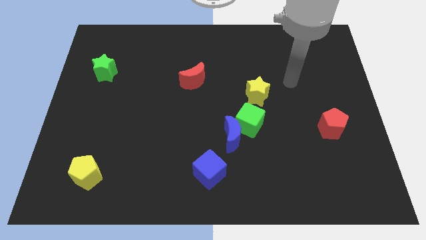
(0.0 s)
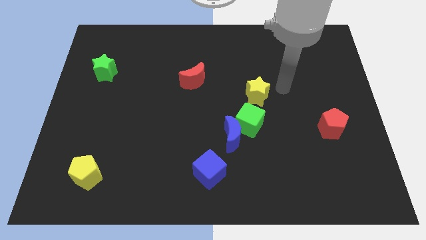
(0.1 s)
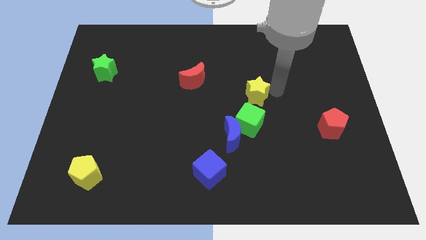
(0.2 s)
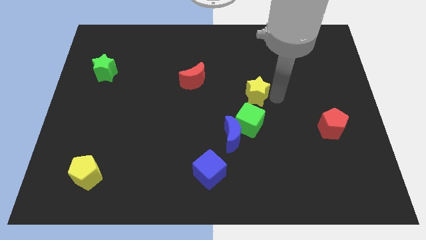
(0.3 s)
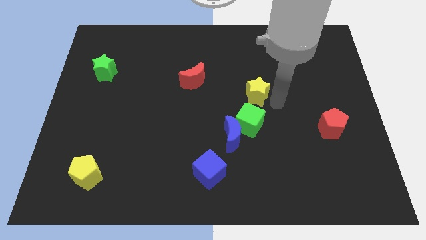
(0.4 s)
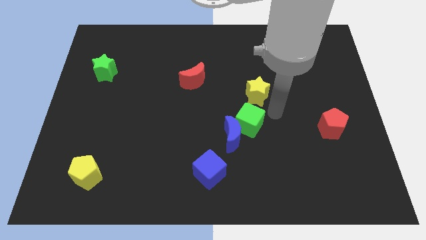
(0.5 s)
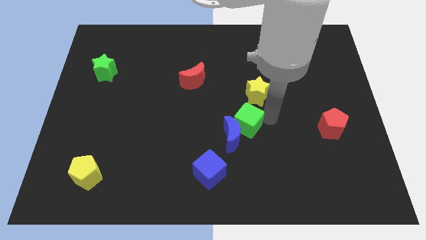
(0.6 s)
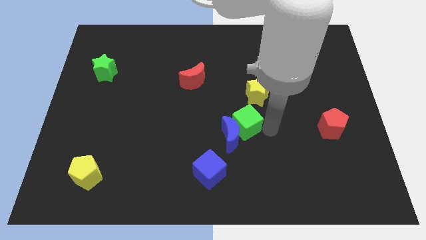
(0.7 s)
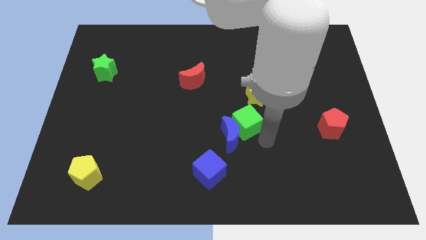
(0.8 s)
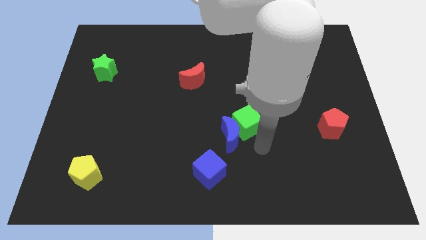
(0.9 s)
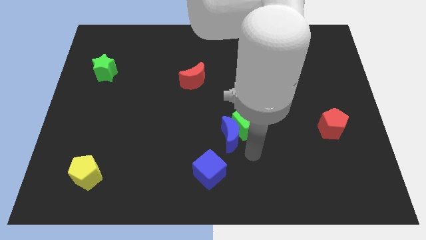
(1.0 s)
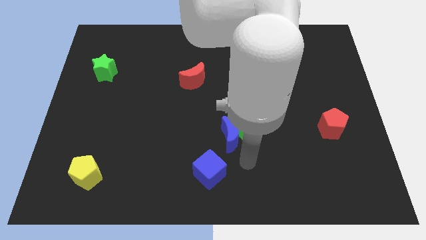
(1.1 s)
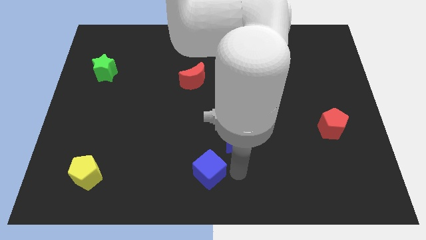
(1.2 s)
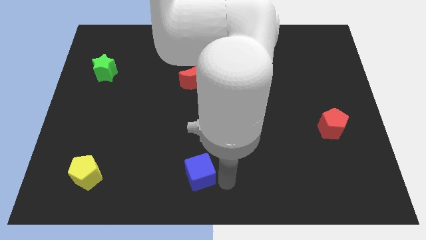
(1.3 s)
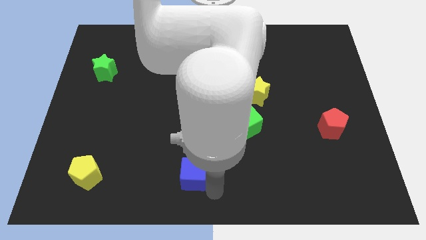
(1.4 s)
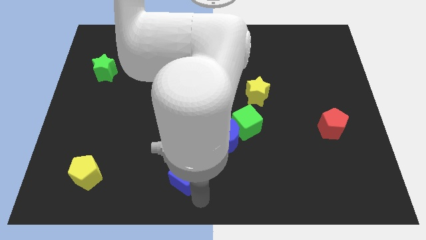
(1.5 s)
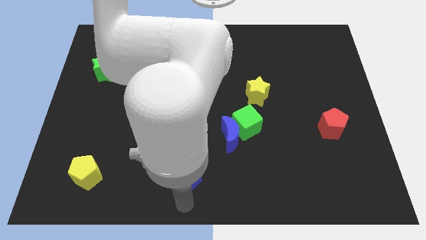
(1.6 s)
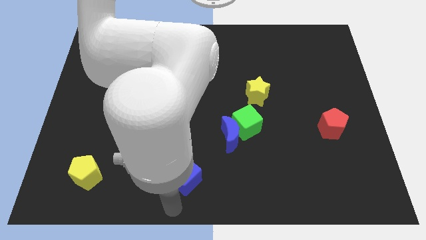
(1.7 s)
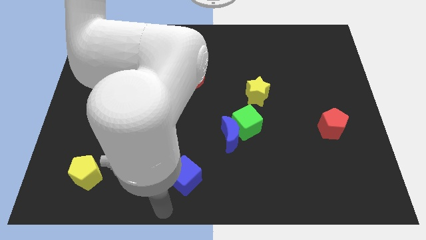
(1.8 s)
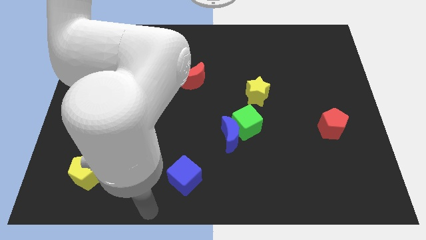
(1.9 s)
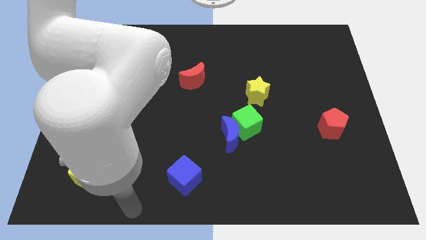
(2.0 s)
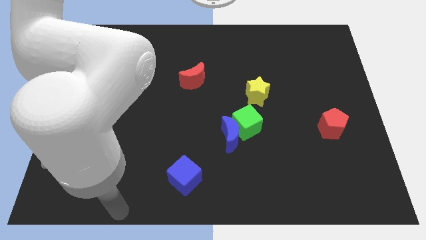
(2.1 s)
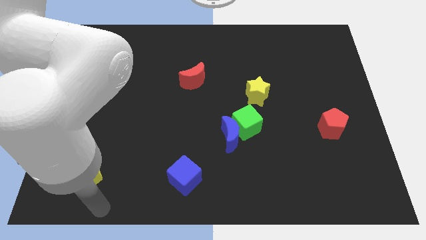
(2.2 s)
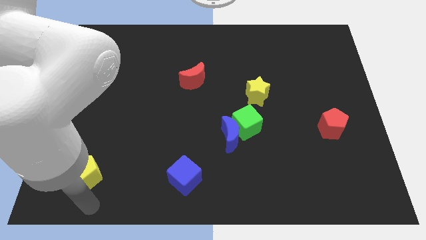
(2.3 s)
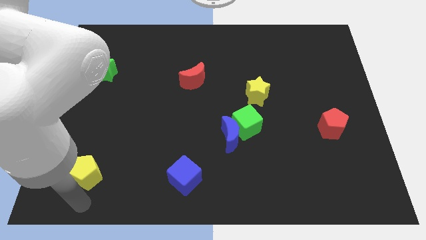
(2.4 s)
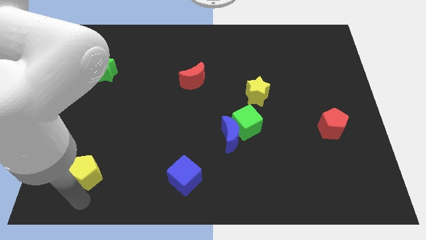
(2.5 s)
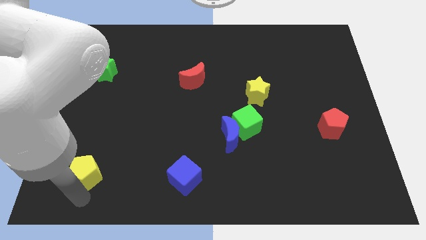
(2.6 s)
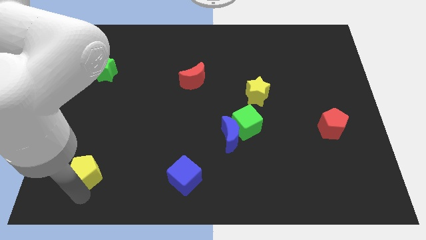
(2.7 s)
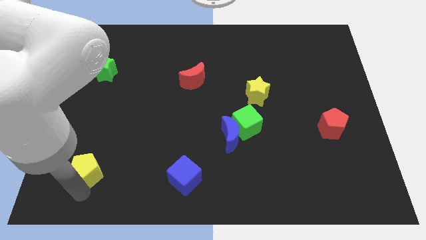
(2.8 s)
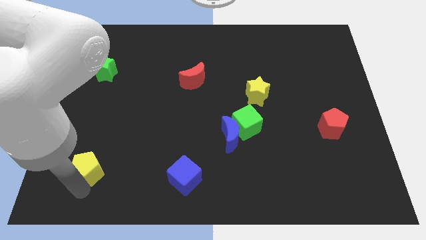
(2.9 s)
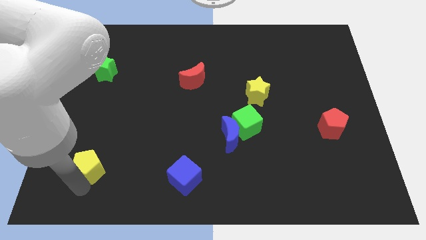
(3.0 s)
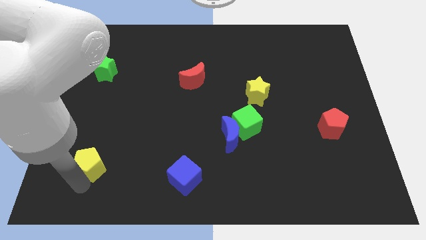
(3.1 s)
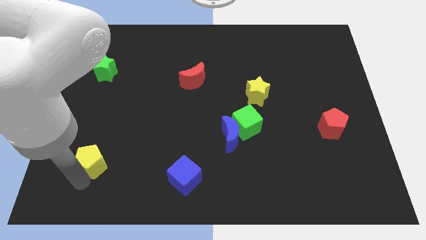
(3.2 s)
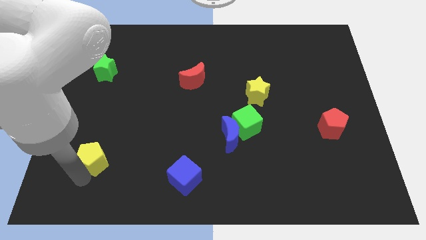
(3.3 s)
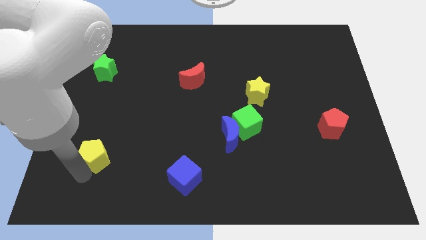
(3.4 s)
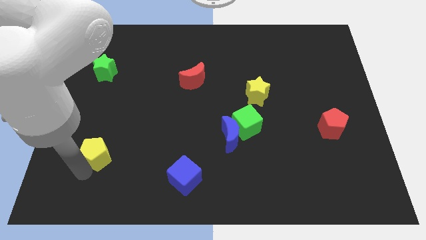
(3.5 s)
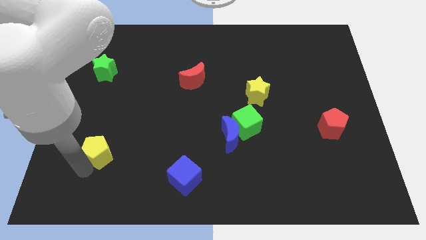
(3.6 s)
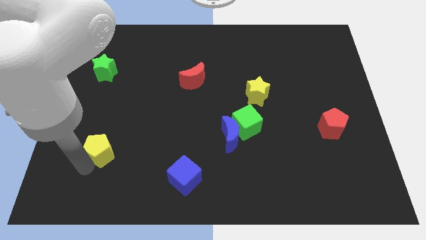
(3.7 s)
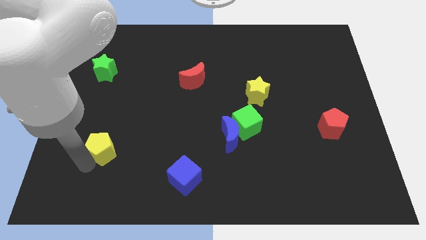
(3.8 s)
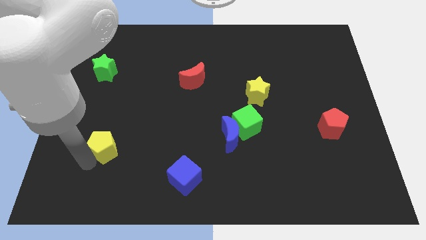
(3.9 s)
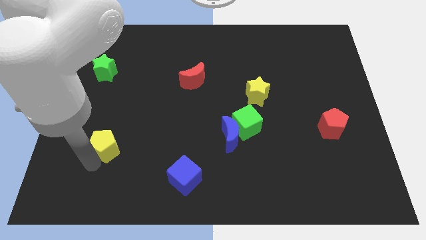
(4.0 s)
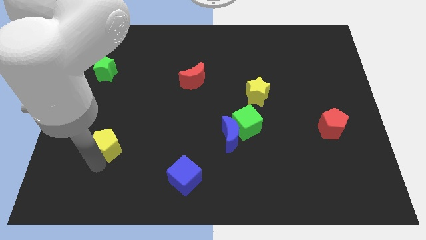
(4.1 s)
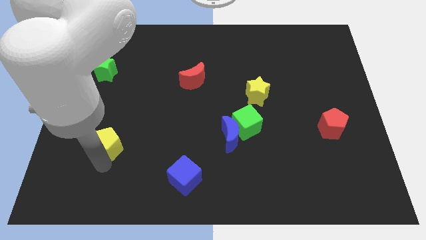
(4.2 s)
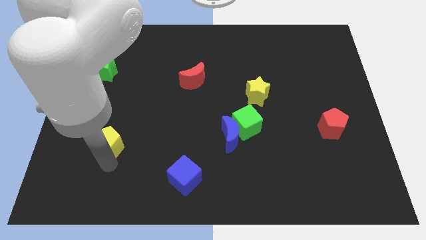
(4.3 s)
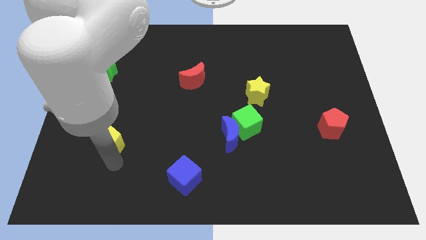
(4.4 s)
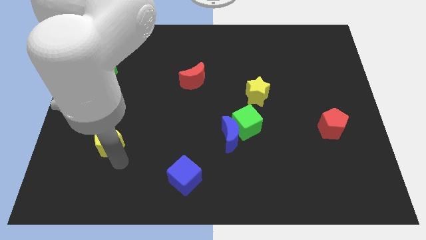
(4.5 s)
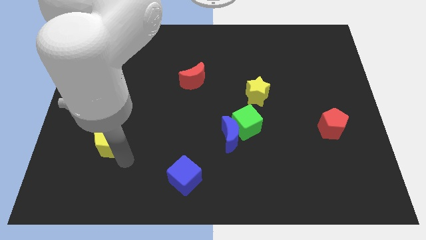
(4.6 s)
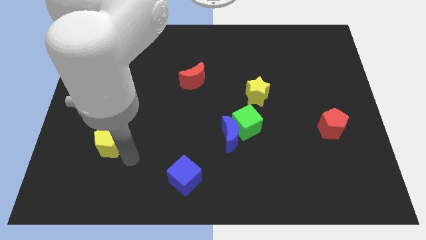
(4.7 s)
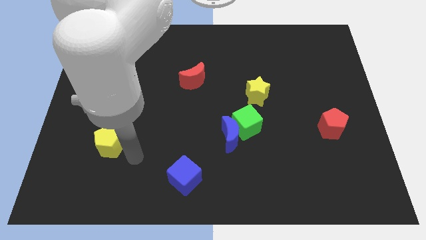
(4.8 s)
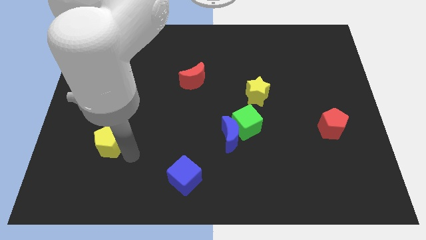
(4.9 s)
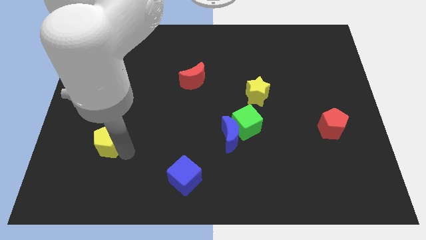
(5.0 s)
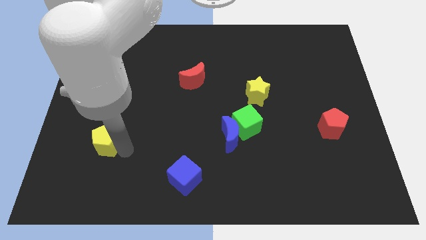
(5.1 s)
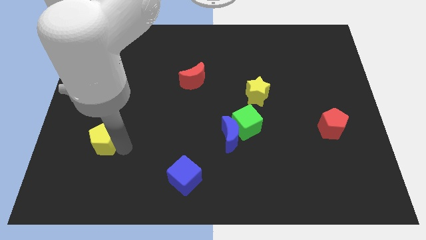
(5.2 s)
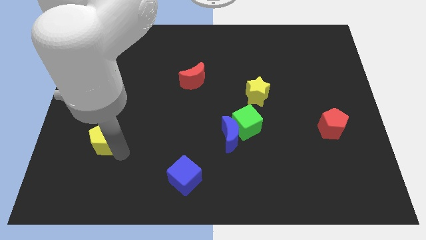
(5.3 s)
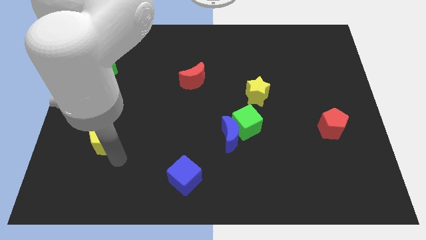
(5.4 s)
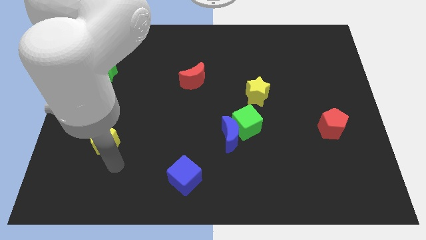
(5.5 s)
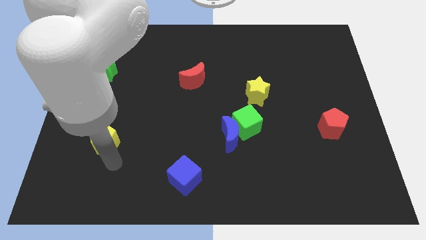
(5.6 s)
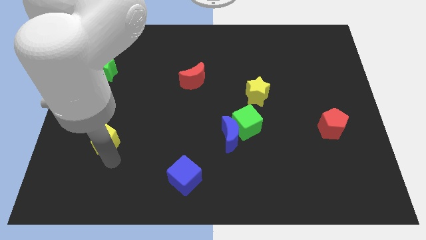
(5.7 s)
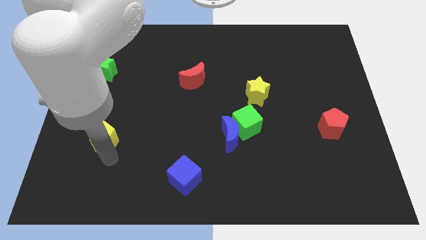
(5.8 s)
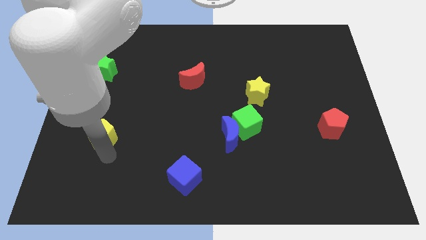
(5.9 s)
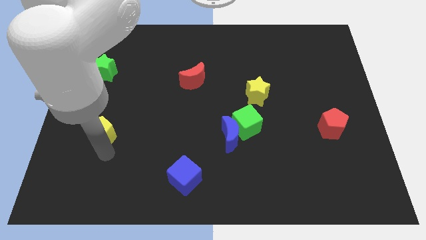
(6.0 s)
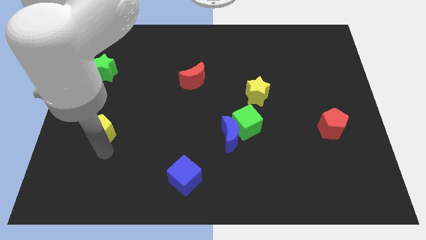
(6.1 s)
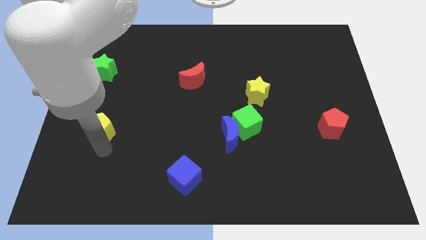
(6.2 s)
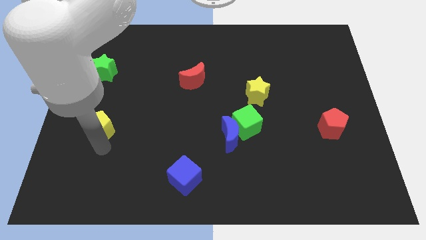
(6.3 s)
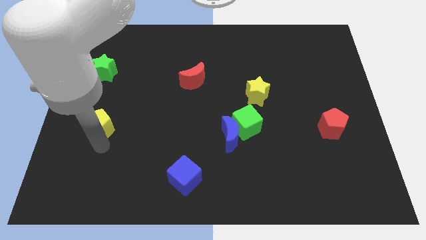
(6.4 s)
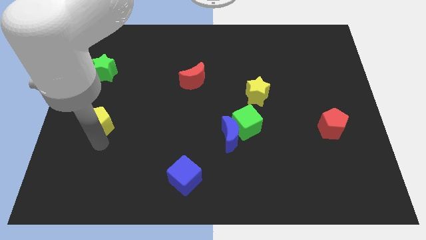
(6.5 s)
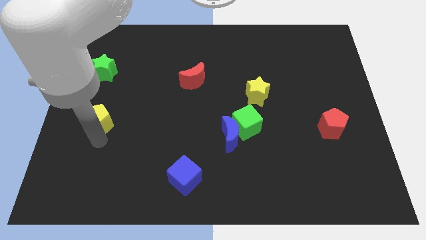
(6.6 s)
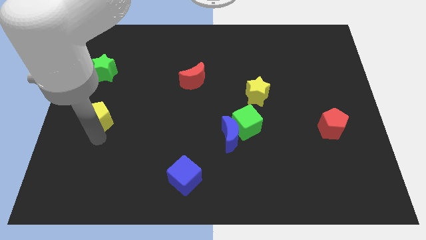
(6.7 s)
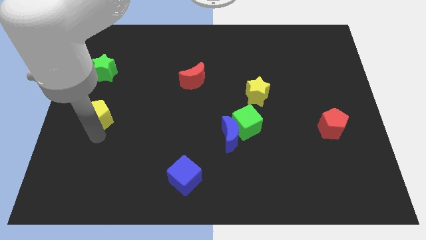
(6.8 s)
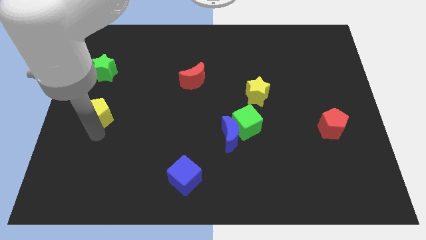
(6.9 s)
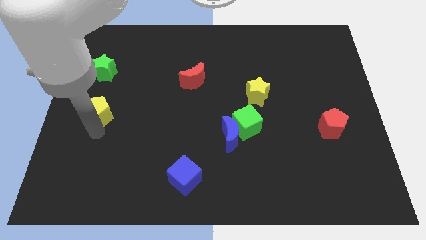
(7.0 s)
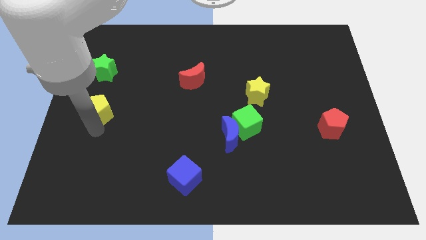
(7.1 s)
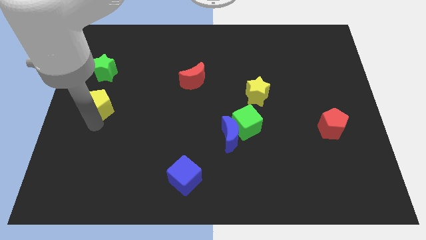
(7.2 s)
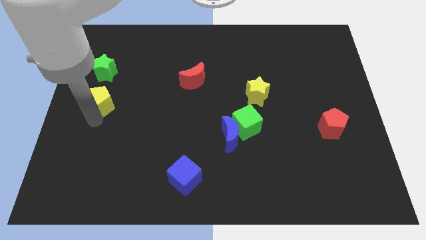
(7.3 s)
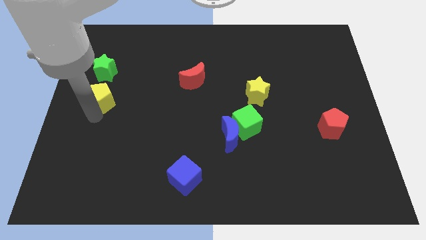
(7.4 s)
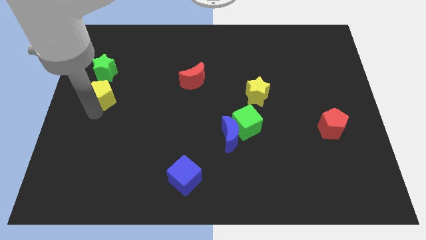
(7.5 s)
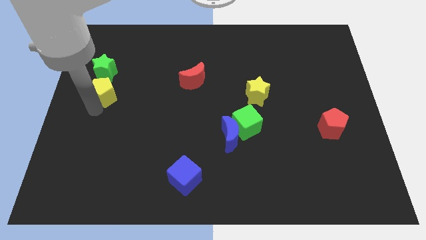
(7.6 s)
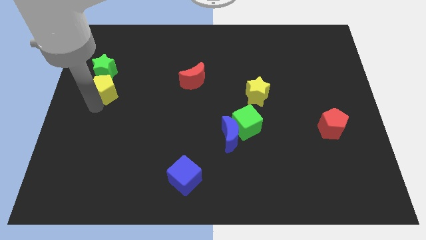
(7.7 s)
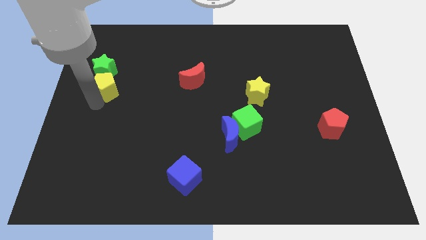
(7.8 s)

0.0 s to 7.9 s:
push the yellow pentagon next to the green star
